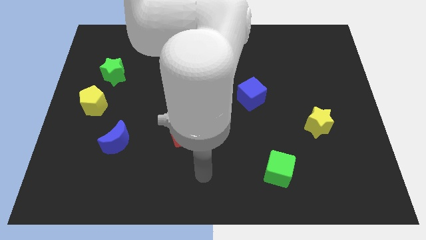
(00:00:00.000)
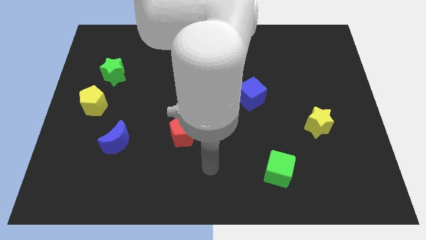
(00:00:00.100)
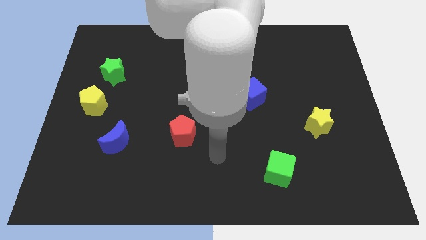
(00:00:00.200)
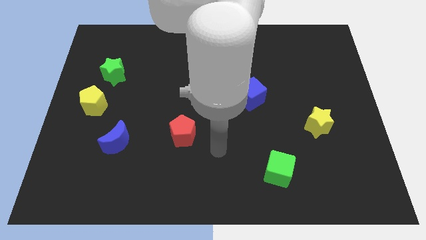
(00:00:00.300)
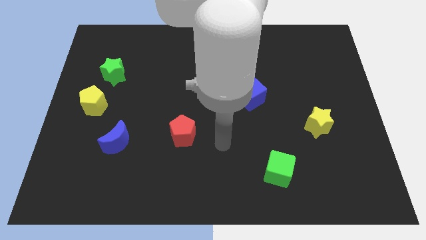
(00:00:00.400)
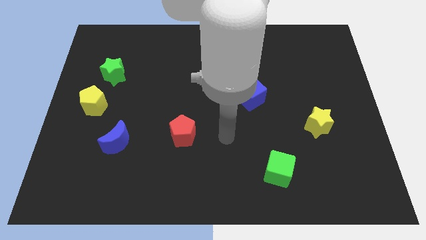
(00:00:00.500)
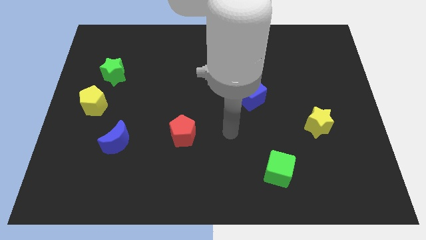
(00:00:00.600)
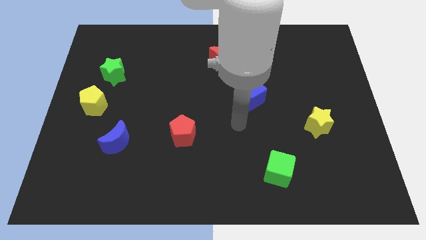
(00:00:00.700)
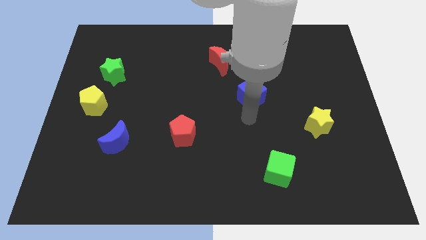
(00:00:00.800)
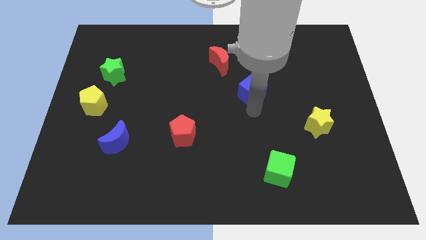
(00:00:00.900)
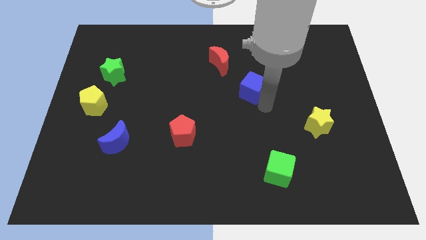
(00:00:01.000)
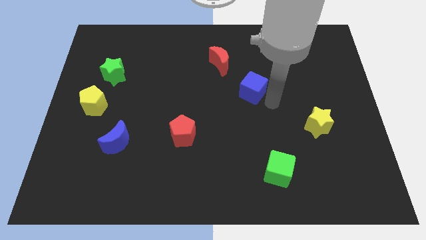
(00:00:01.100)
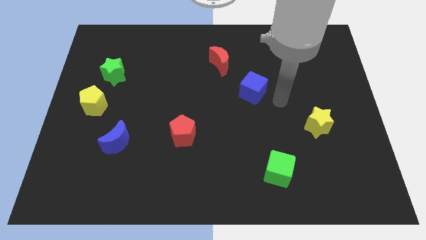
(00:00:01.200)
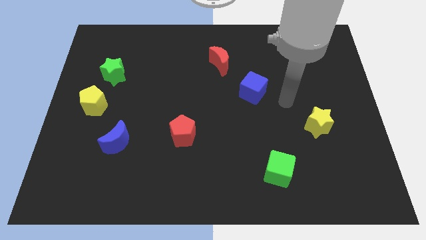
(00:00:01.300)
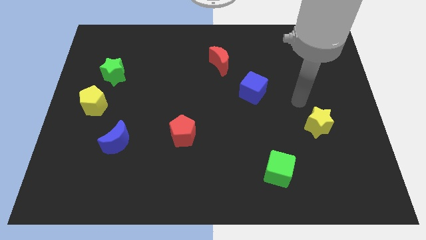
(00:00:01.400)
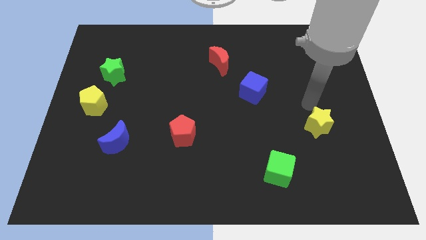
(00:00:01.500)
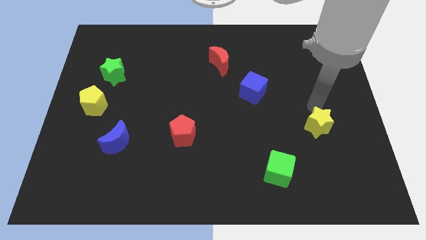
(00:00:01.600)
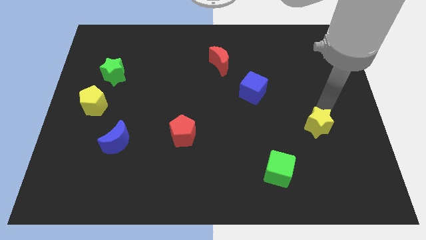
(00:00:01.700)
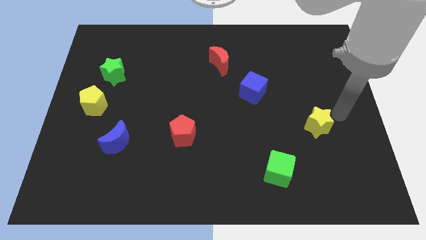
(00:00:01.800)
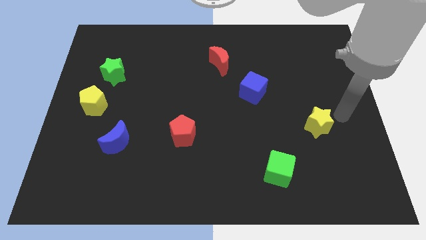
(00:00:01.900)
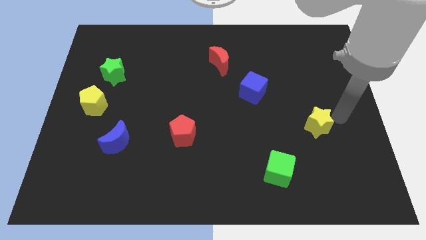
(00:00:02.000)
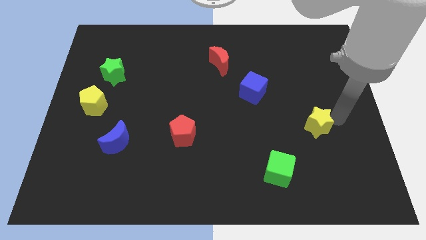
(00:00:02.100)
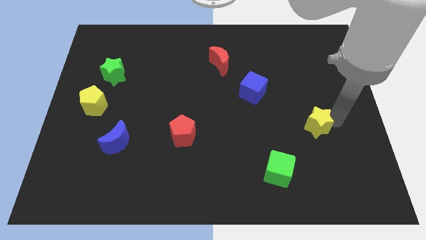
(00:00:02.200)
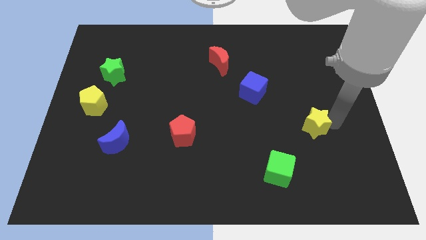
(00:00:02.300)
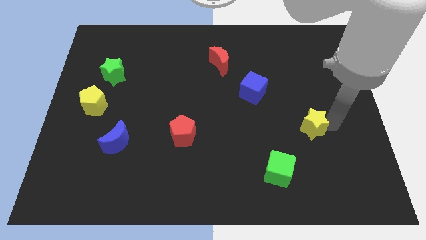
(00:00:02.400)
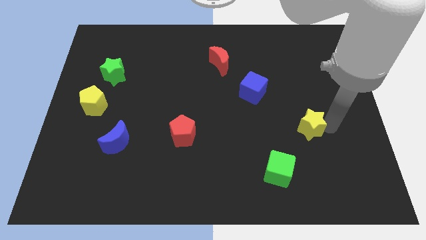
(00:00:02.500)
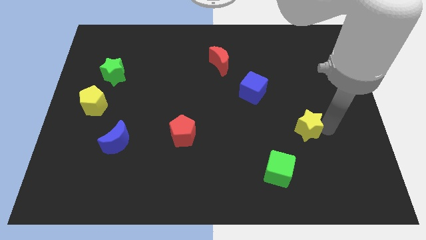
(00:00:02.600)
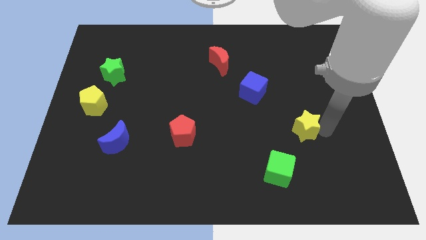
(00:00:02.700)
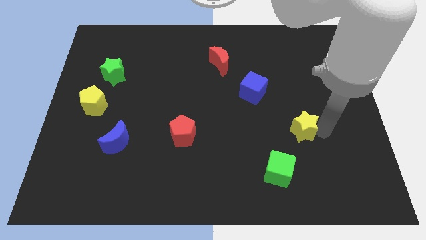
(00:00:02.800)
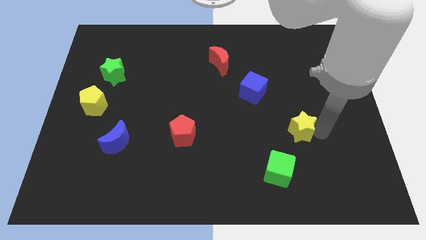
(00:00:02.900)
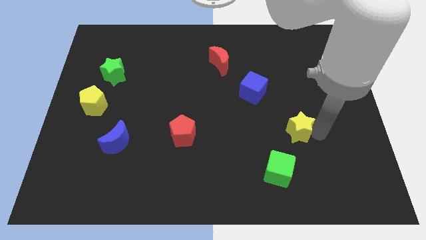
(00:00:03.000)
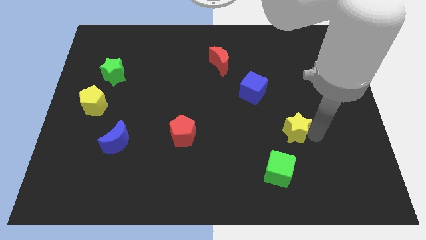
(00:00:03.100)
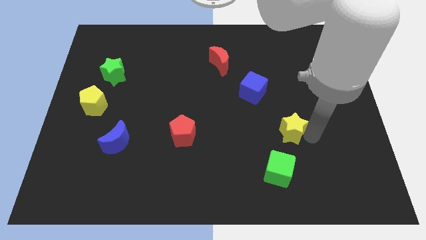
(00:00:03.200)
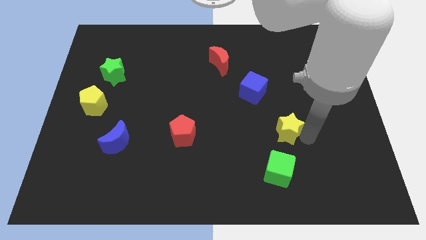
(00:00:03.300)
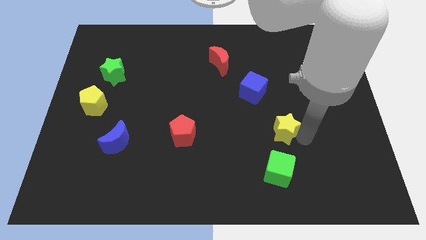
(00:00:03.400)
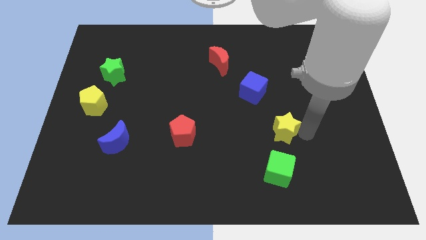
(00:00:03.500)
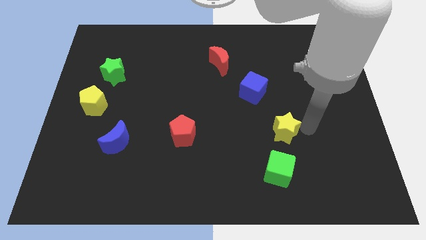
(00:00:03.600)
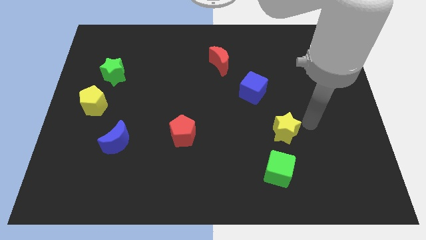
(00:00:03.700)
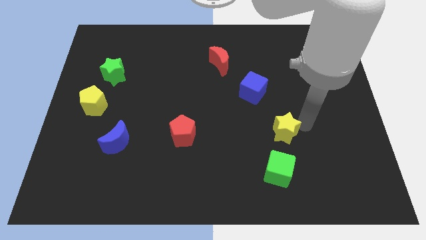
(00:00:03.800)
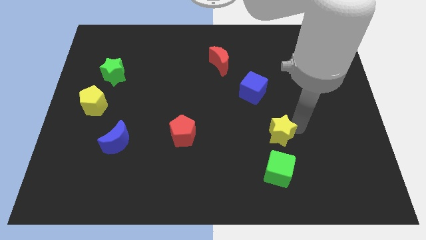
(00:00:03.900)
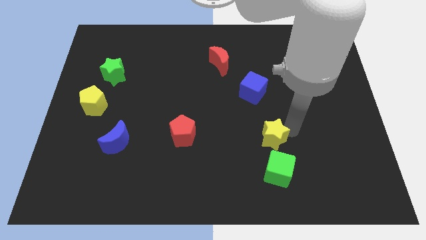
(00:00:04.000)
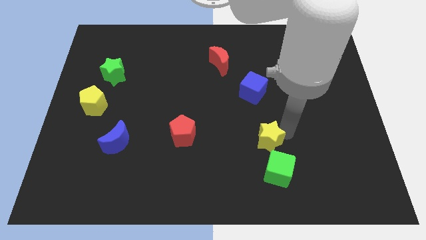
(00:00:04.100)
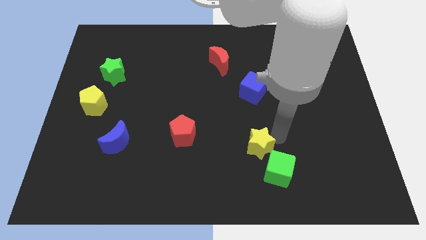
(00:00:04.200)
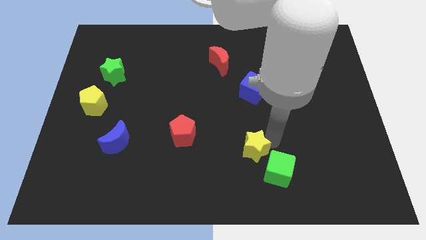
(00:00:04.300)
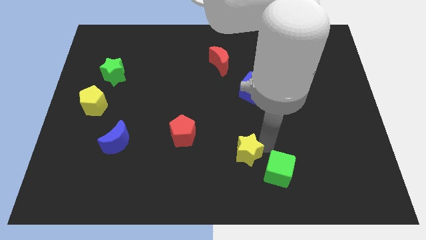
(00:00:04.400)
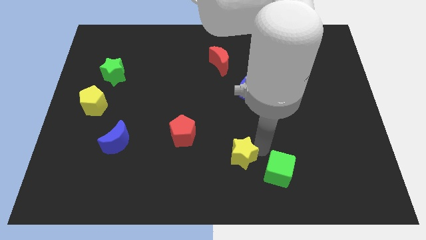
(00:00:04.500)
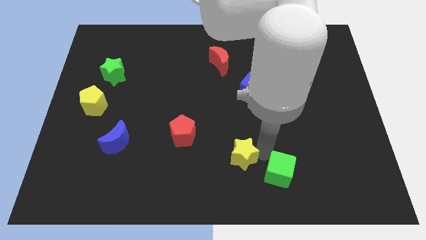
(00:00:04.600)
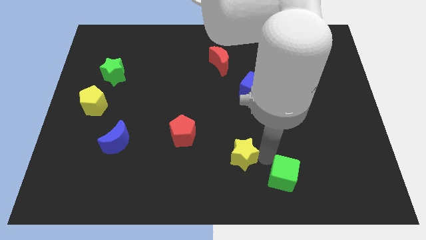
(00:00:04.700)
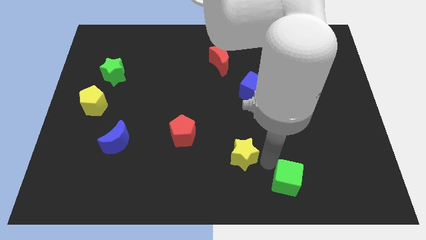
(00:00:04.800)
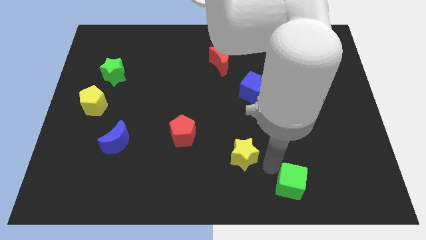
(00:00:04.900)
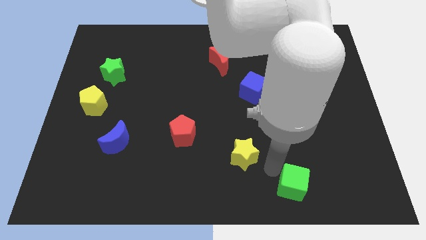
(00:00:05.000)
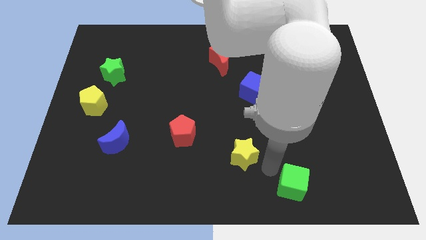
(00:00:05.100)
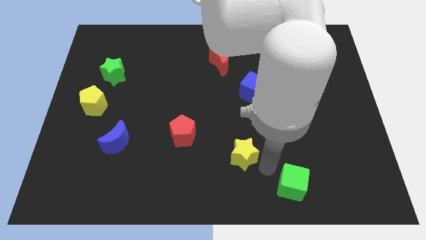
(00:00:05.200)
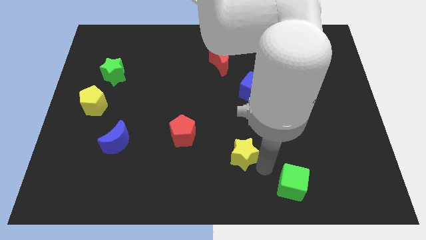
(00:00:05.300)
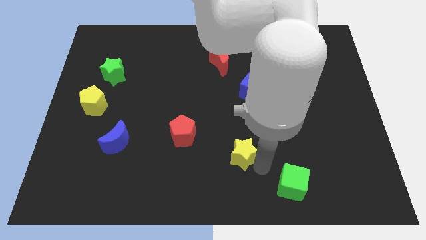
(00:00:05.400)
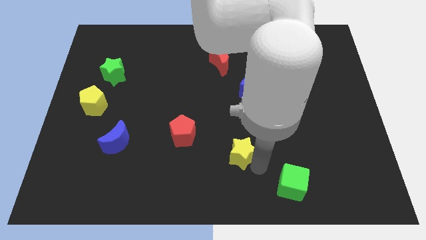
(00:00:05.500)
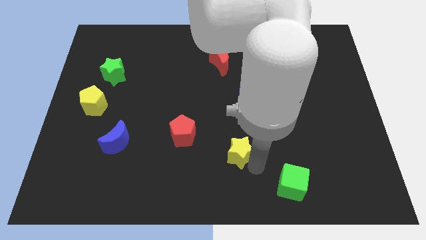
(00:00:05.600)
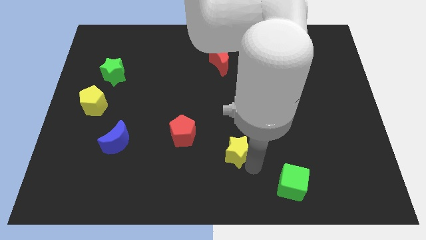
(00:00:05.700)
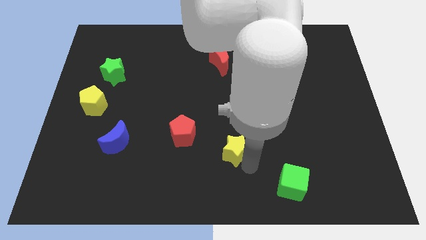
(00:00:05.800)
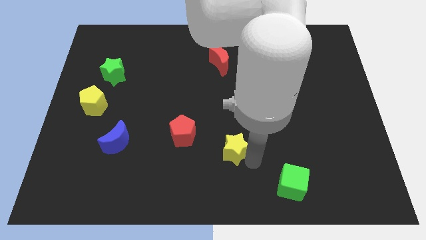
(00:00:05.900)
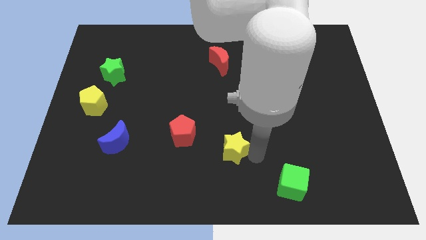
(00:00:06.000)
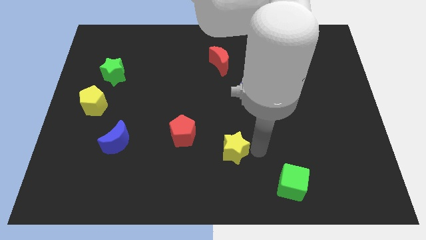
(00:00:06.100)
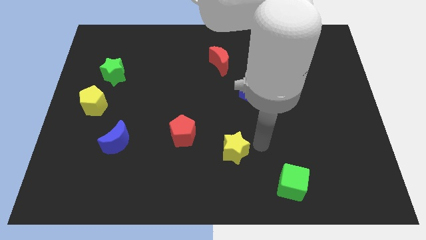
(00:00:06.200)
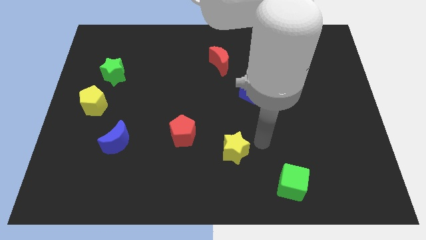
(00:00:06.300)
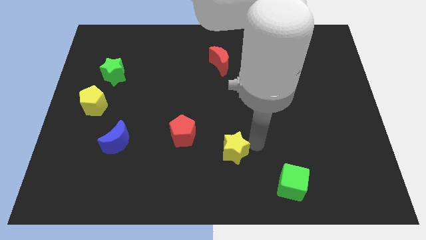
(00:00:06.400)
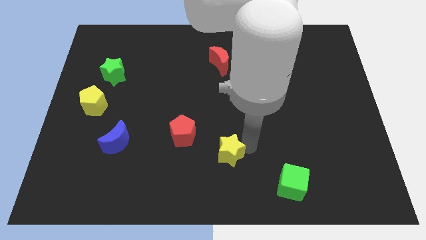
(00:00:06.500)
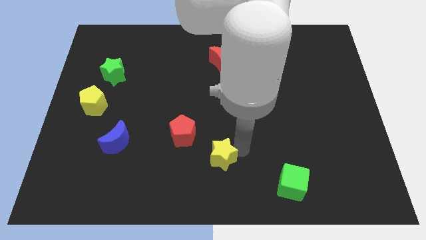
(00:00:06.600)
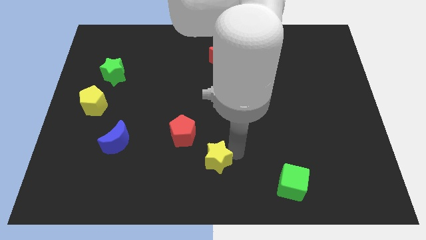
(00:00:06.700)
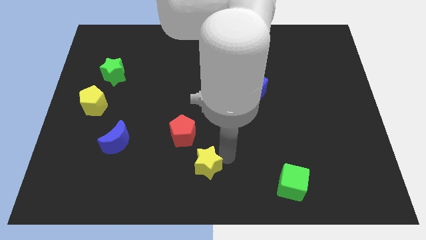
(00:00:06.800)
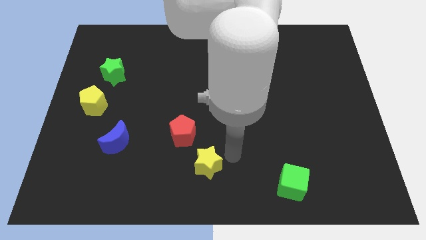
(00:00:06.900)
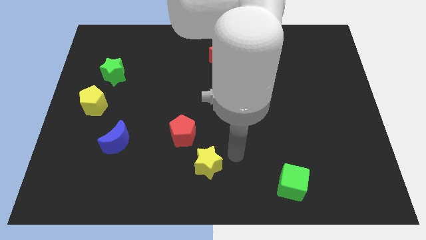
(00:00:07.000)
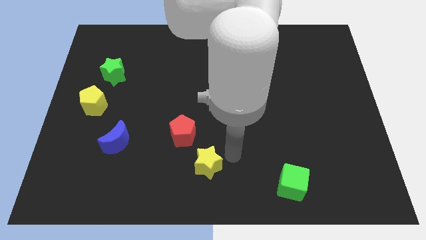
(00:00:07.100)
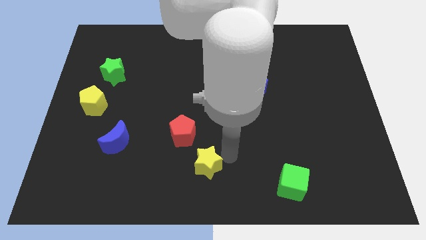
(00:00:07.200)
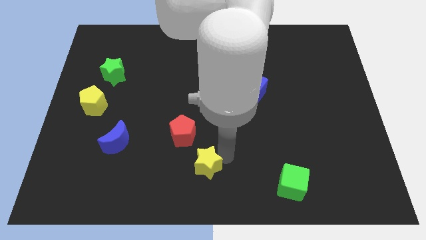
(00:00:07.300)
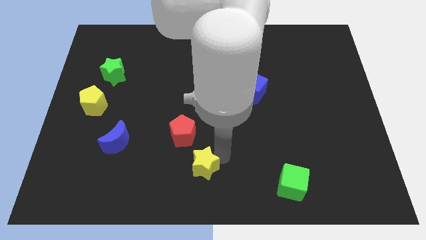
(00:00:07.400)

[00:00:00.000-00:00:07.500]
push the yellow star to the bottom of the red pentagon
